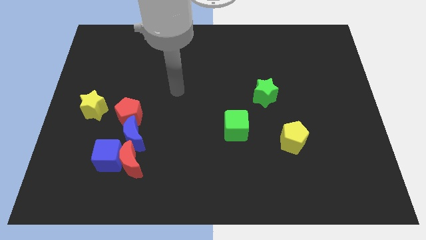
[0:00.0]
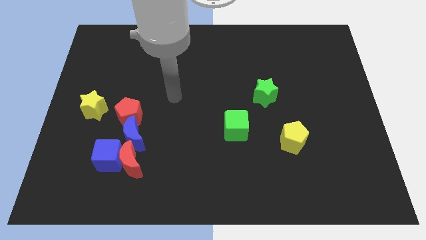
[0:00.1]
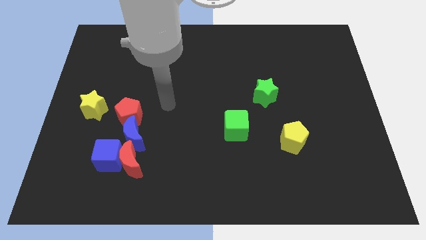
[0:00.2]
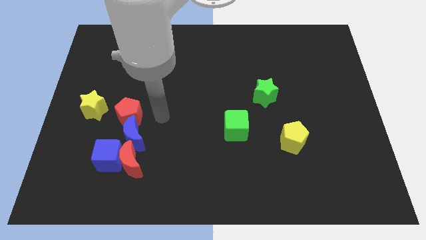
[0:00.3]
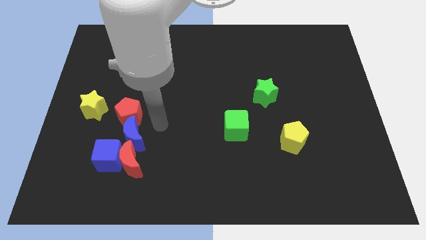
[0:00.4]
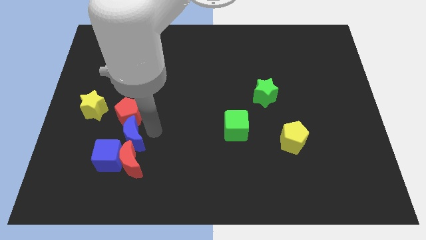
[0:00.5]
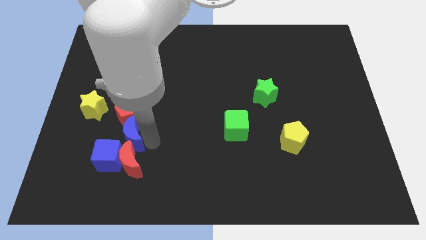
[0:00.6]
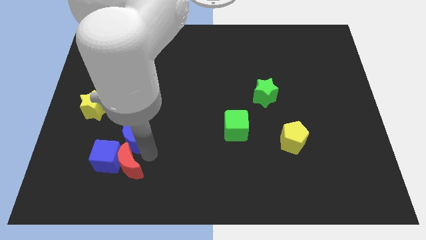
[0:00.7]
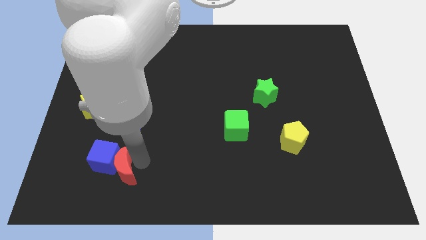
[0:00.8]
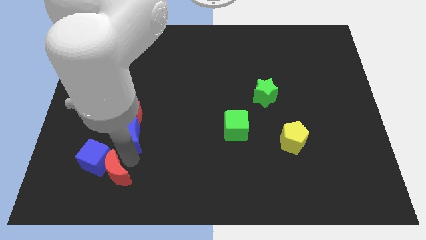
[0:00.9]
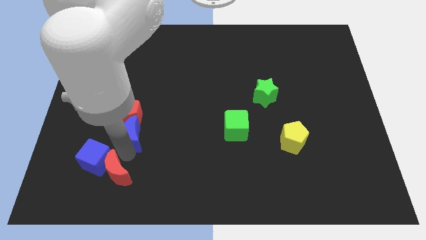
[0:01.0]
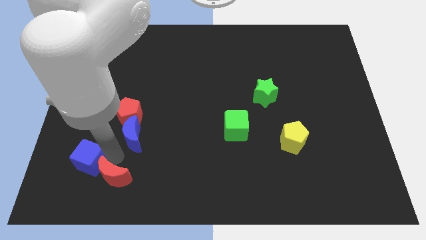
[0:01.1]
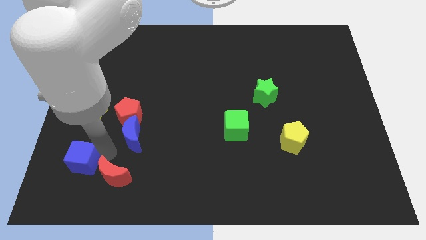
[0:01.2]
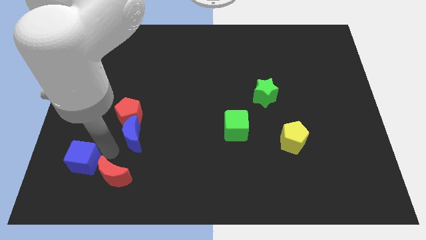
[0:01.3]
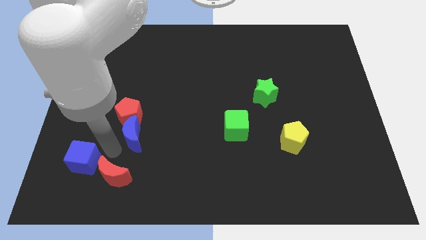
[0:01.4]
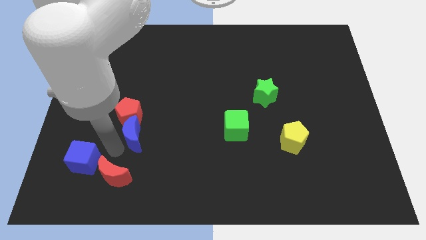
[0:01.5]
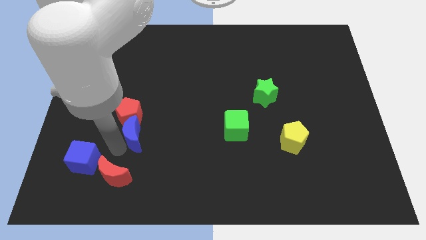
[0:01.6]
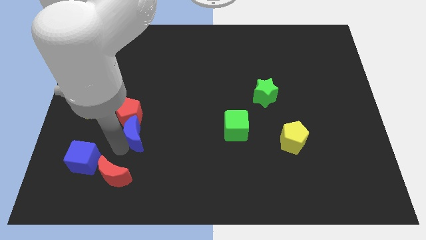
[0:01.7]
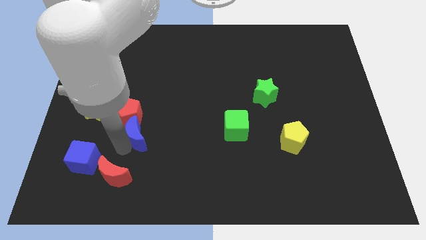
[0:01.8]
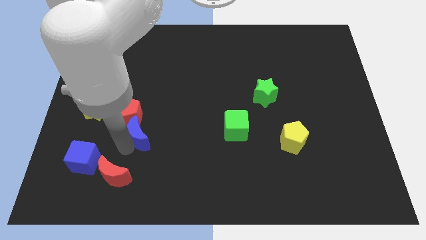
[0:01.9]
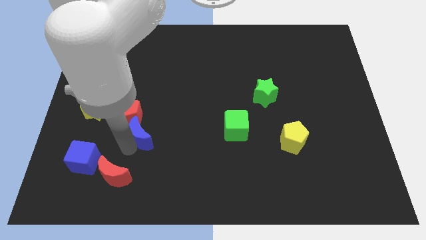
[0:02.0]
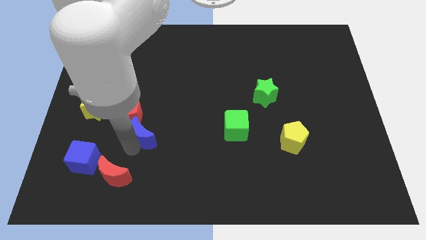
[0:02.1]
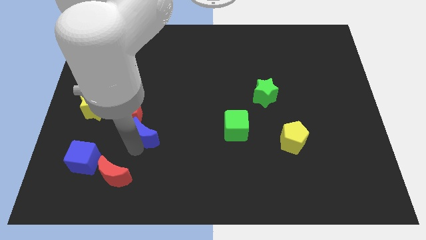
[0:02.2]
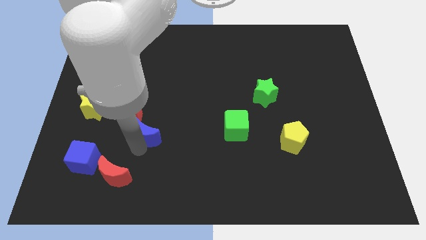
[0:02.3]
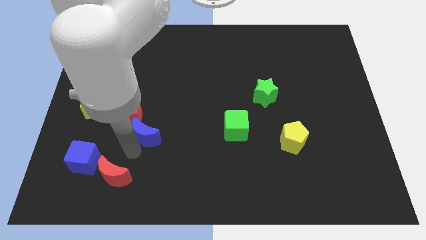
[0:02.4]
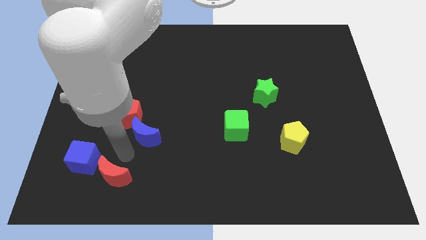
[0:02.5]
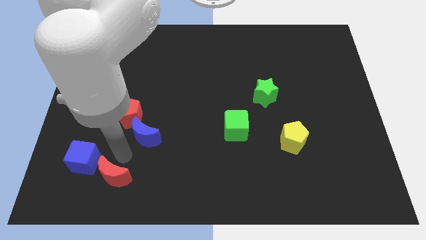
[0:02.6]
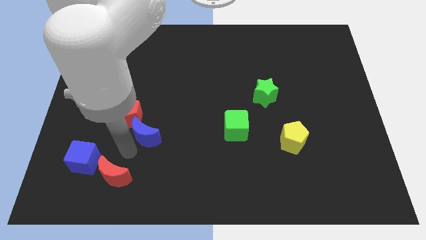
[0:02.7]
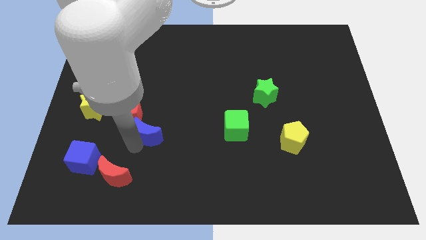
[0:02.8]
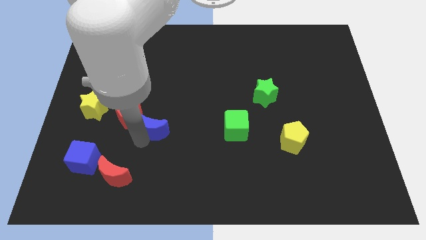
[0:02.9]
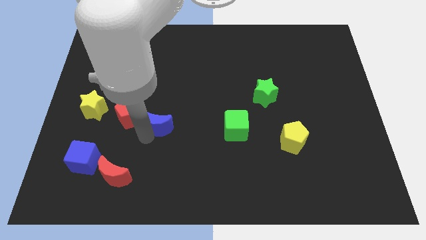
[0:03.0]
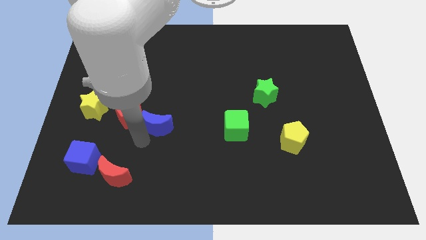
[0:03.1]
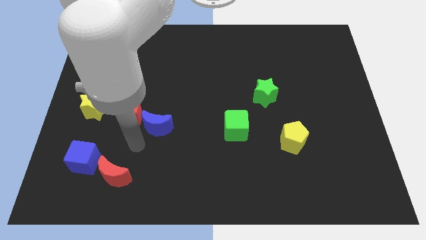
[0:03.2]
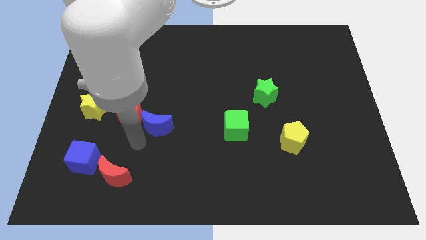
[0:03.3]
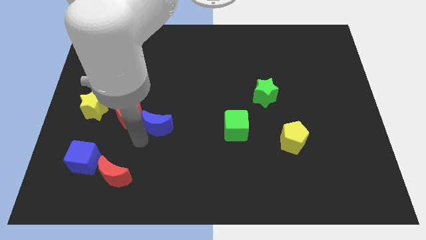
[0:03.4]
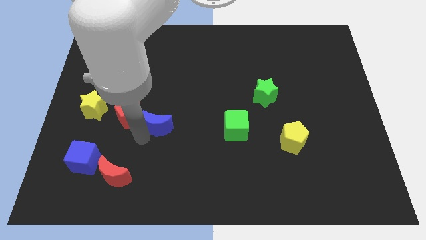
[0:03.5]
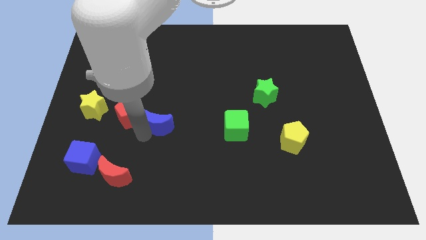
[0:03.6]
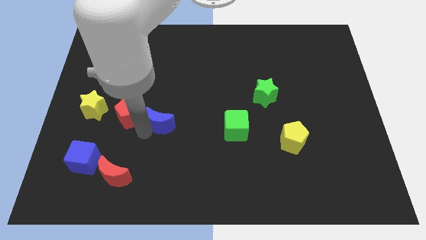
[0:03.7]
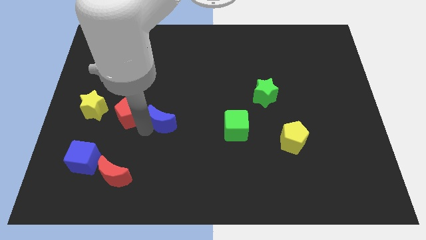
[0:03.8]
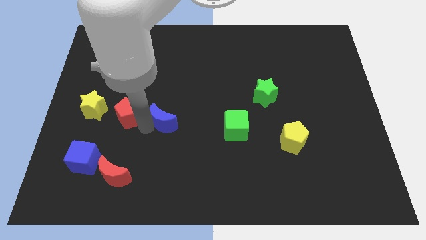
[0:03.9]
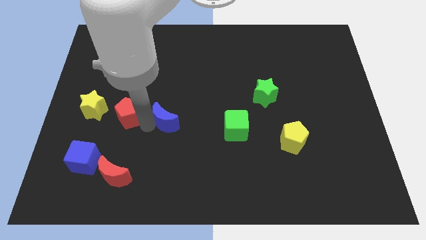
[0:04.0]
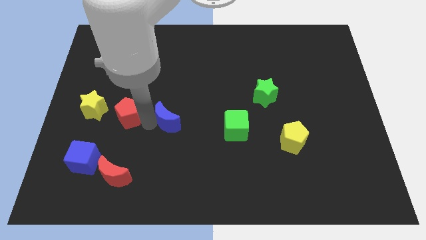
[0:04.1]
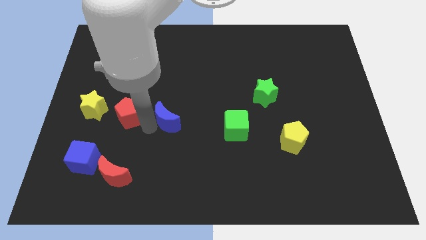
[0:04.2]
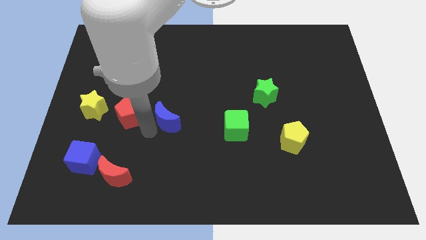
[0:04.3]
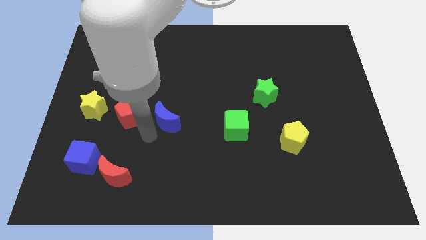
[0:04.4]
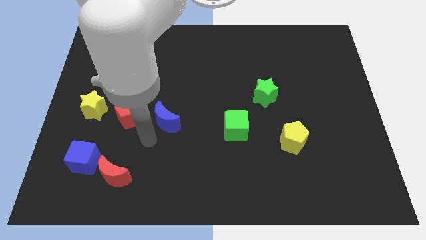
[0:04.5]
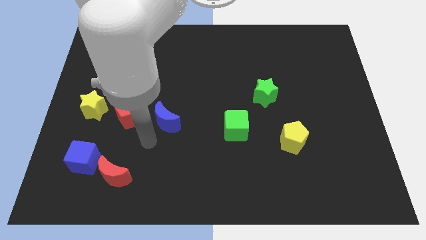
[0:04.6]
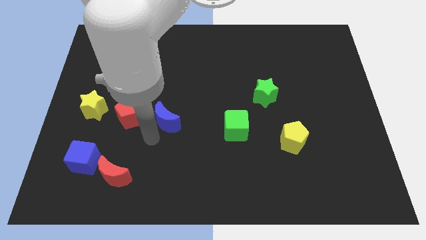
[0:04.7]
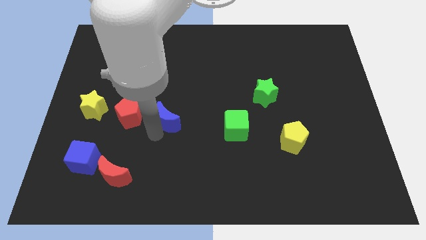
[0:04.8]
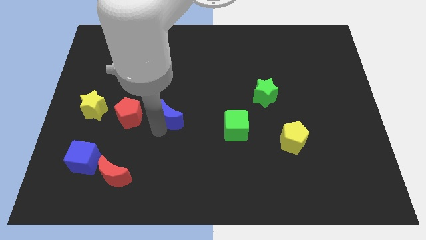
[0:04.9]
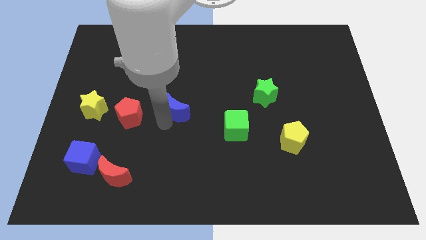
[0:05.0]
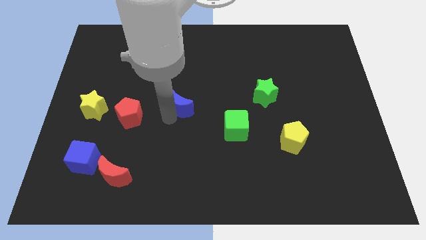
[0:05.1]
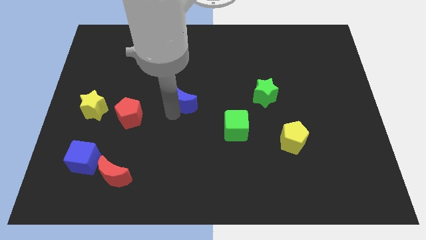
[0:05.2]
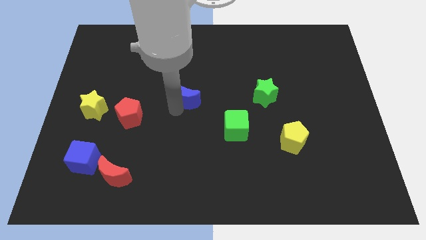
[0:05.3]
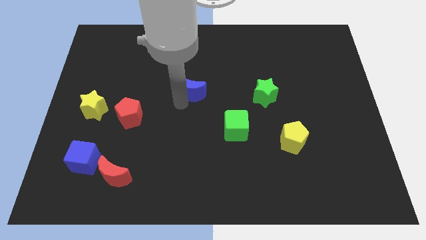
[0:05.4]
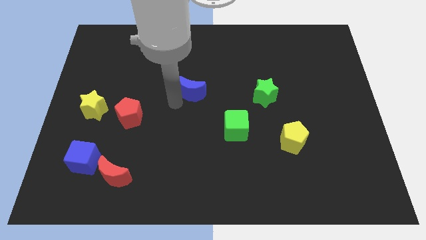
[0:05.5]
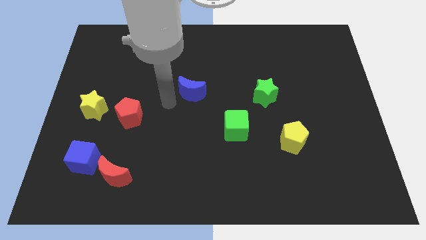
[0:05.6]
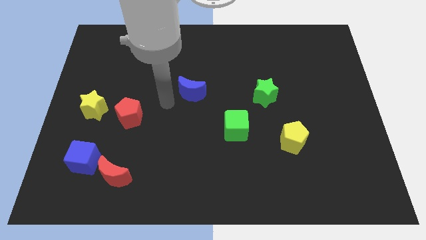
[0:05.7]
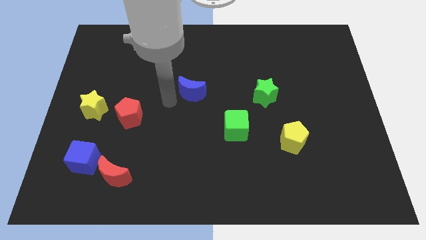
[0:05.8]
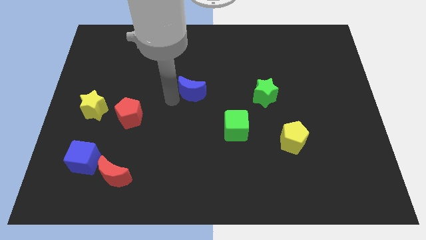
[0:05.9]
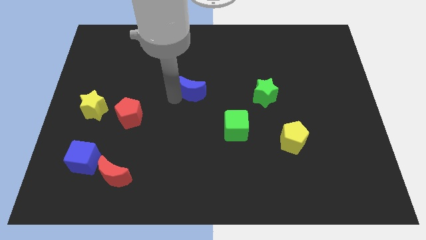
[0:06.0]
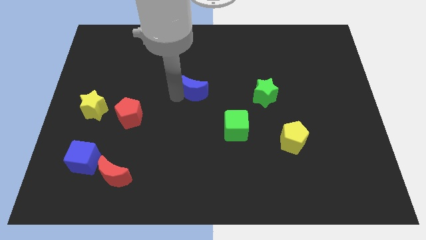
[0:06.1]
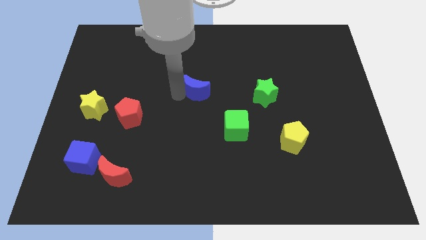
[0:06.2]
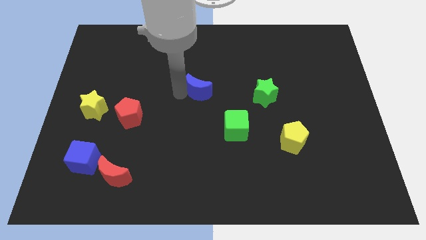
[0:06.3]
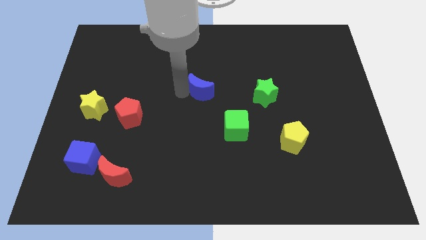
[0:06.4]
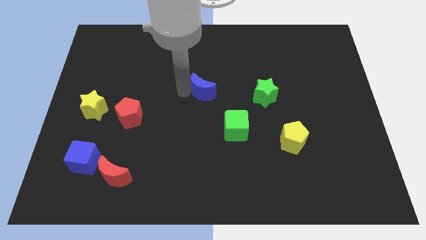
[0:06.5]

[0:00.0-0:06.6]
slide the blue moon upwards and then right

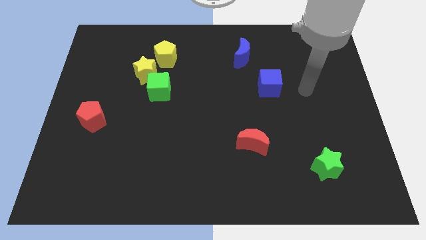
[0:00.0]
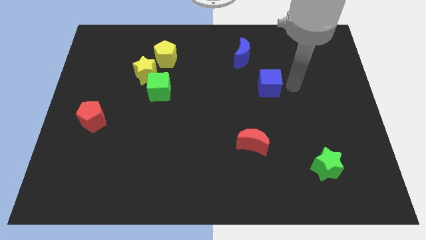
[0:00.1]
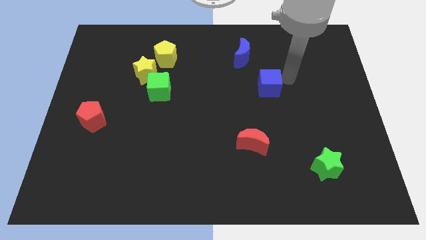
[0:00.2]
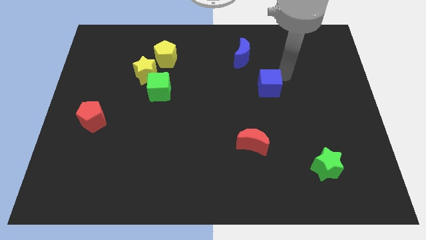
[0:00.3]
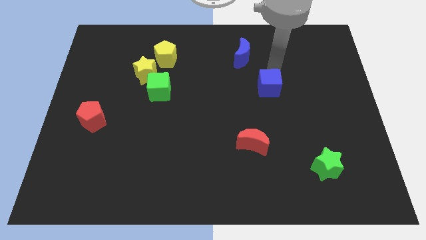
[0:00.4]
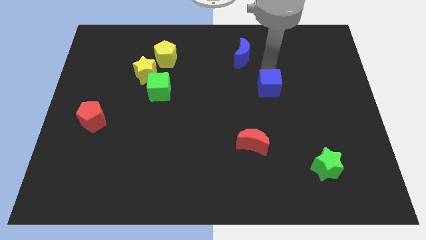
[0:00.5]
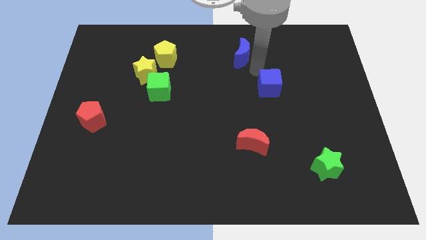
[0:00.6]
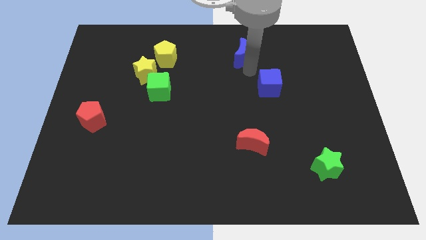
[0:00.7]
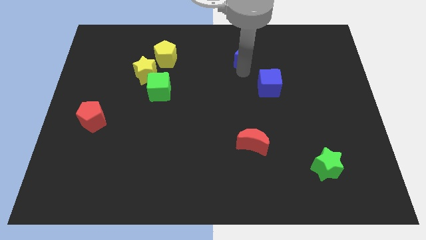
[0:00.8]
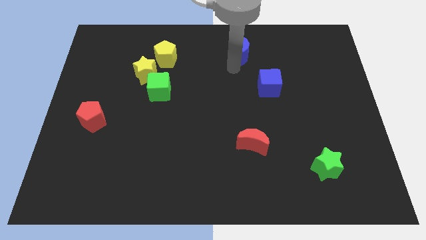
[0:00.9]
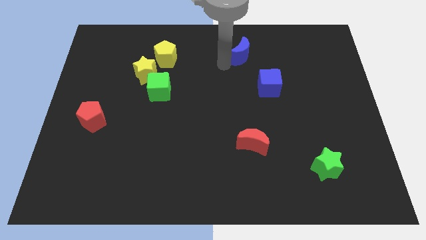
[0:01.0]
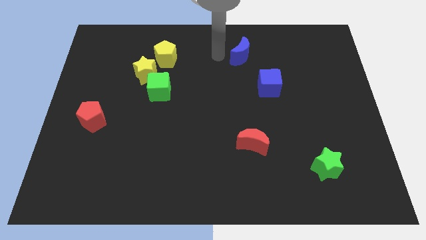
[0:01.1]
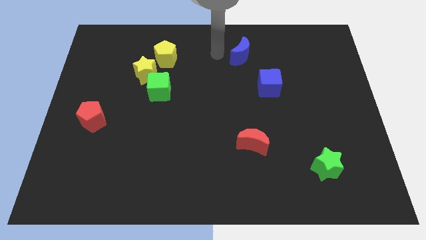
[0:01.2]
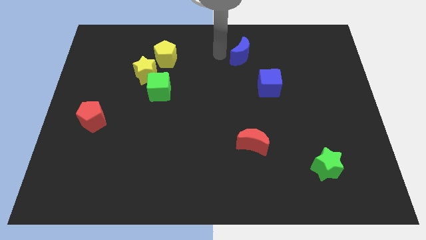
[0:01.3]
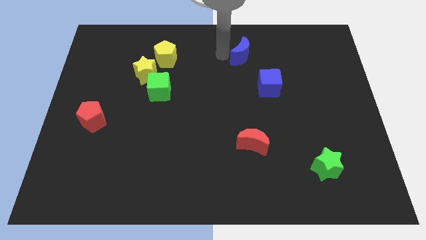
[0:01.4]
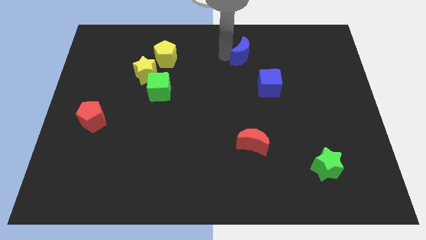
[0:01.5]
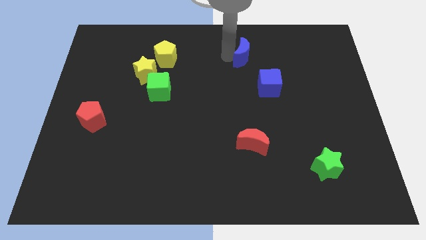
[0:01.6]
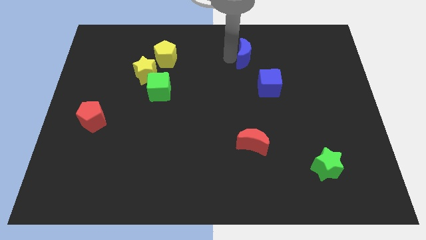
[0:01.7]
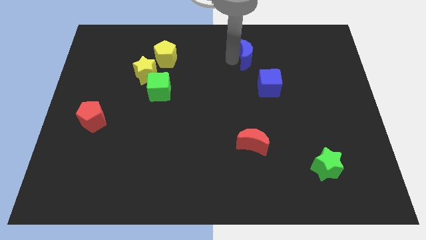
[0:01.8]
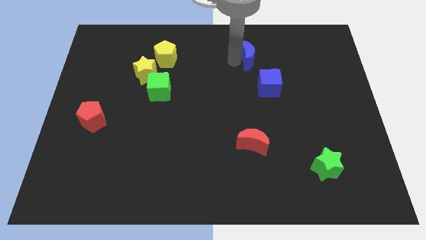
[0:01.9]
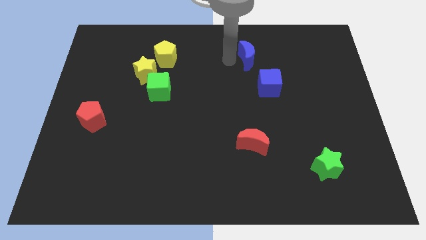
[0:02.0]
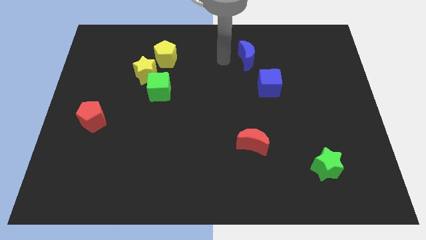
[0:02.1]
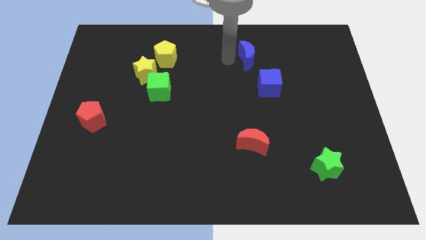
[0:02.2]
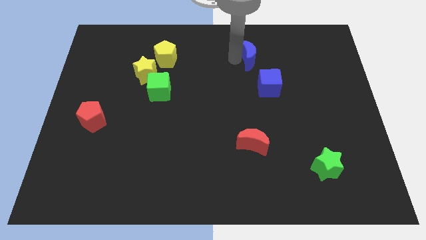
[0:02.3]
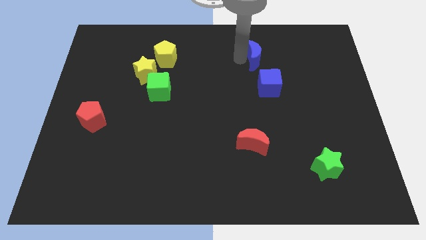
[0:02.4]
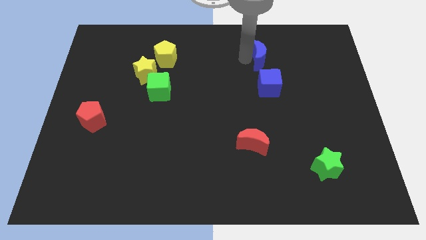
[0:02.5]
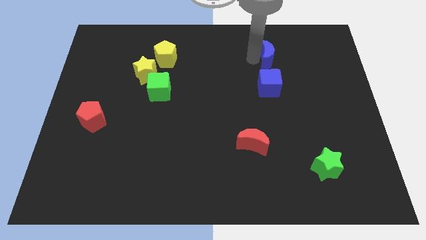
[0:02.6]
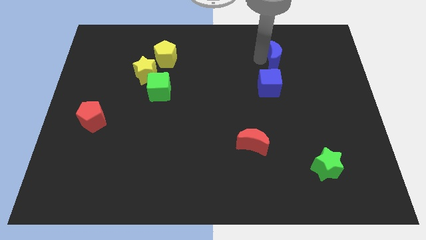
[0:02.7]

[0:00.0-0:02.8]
slide the blue moon to the right somewhat
